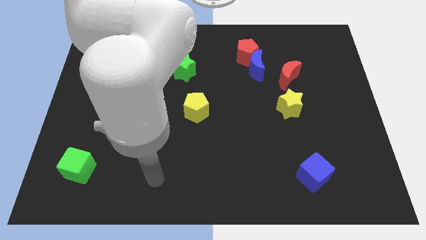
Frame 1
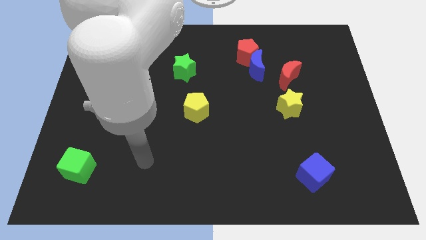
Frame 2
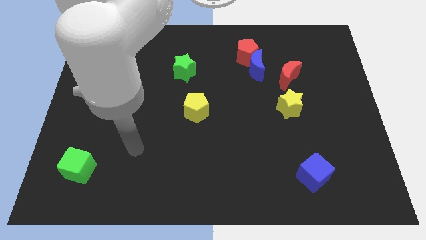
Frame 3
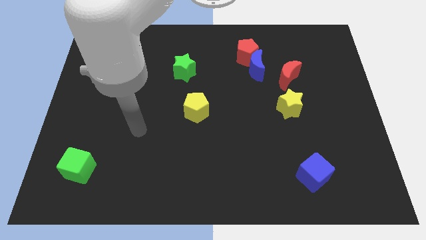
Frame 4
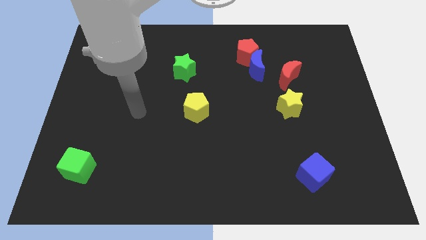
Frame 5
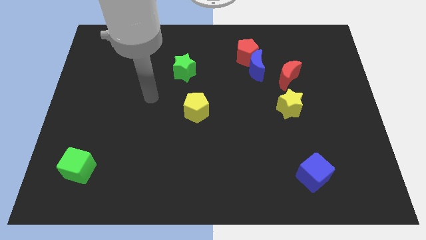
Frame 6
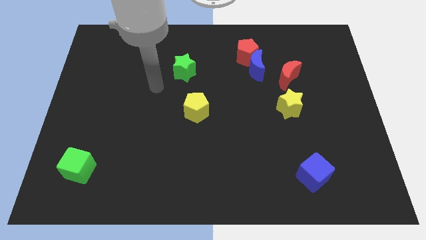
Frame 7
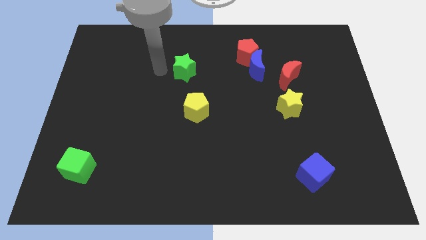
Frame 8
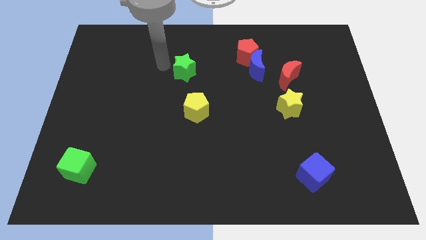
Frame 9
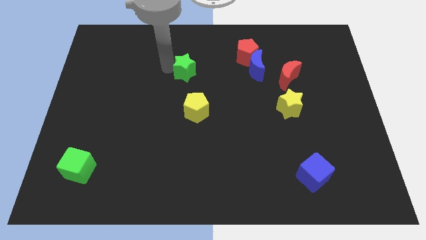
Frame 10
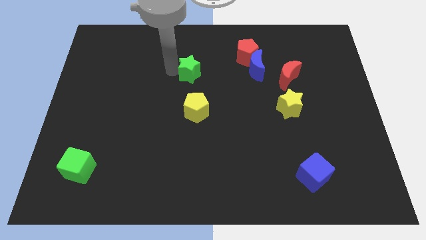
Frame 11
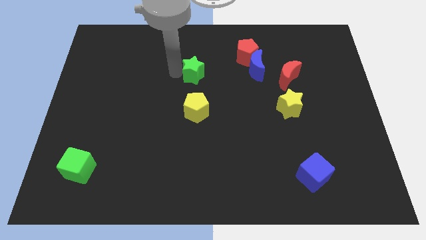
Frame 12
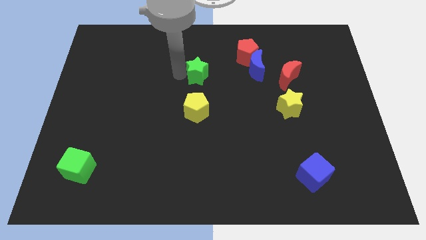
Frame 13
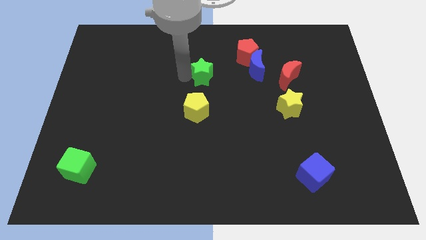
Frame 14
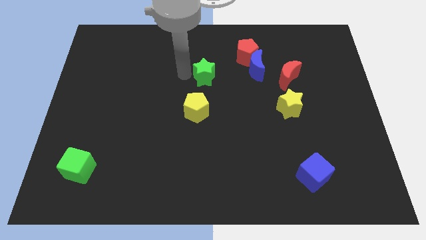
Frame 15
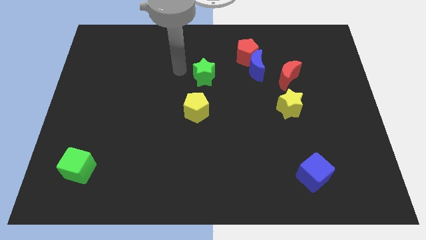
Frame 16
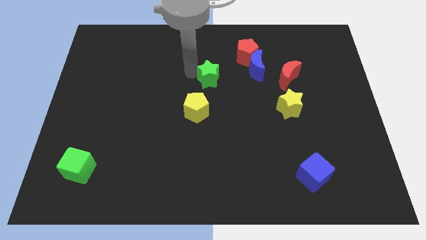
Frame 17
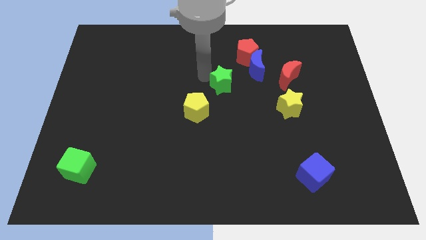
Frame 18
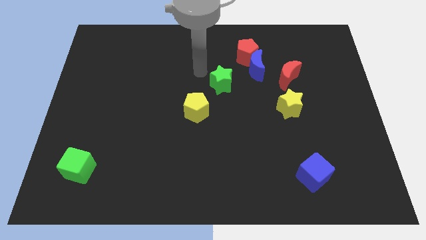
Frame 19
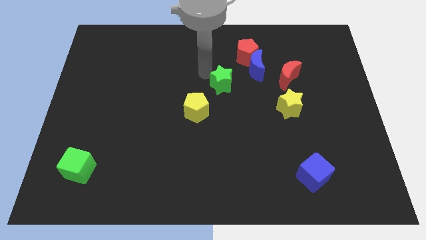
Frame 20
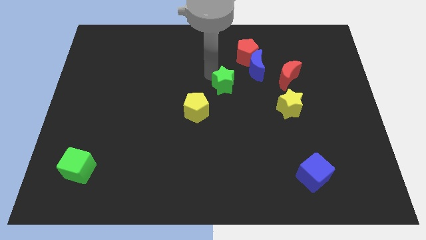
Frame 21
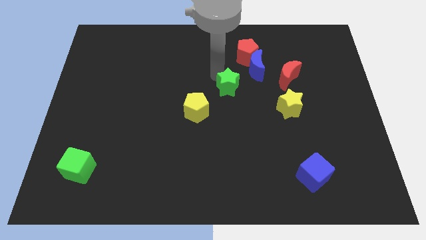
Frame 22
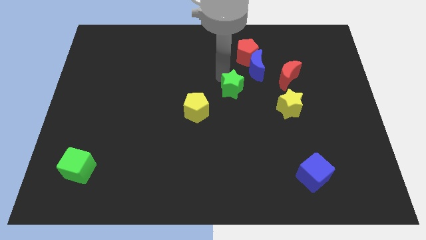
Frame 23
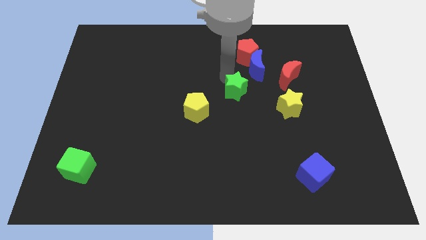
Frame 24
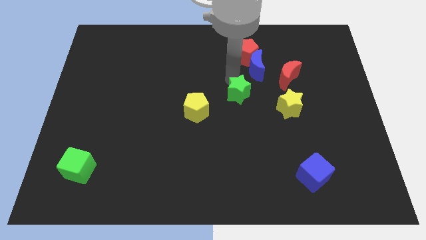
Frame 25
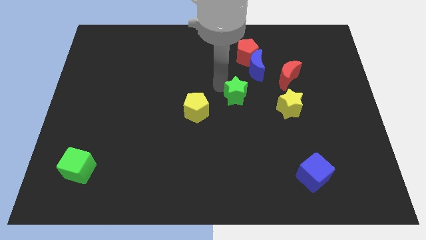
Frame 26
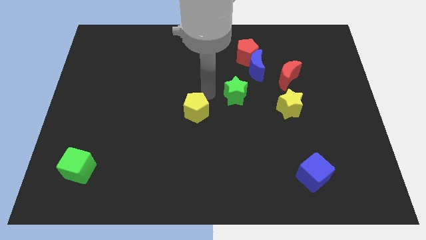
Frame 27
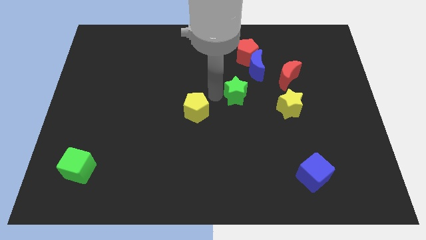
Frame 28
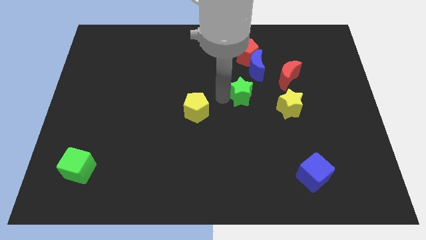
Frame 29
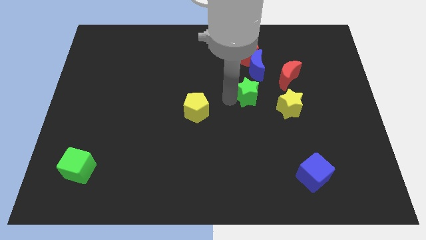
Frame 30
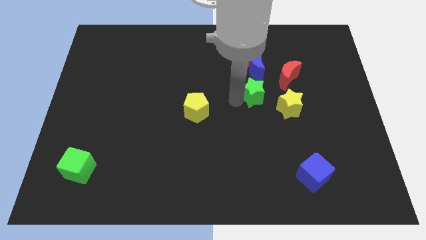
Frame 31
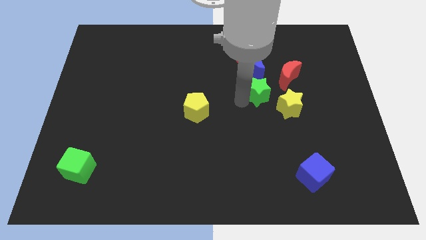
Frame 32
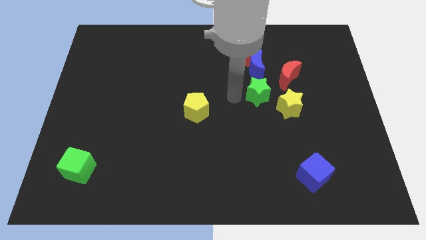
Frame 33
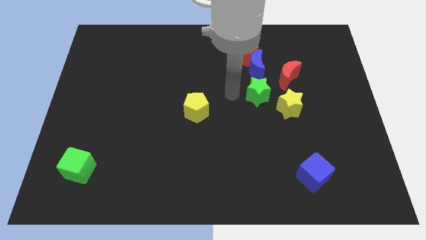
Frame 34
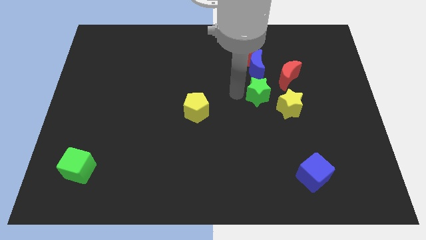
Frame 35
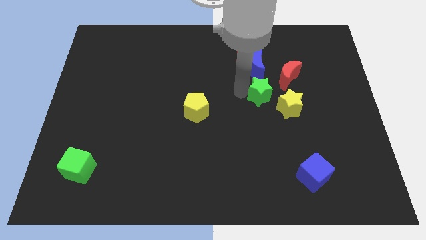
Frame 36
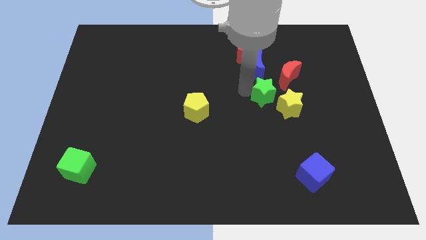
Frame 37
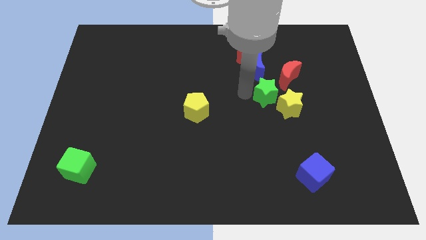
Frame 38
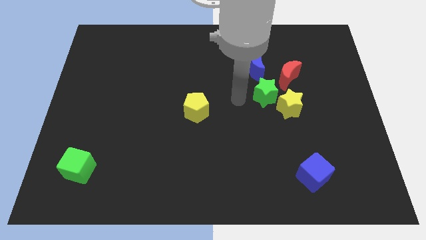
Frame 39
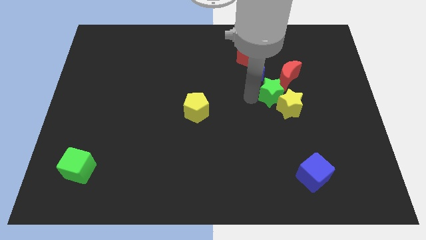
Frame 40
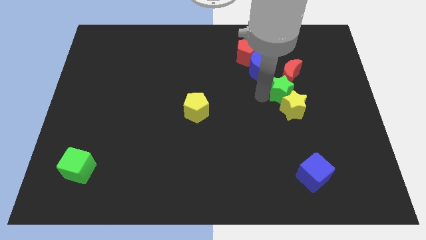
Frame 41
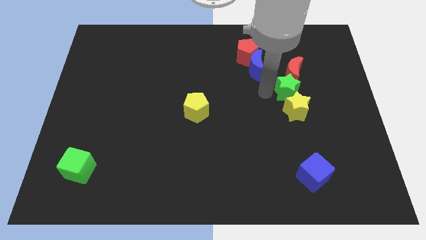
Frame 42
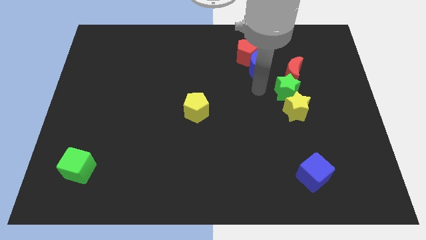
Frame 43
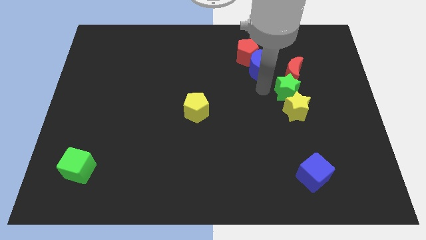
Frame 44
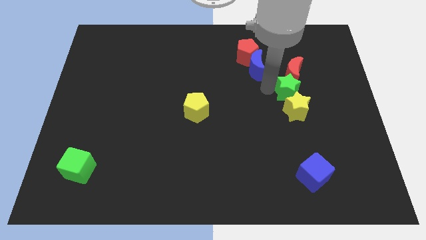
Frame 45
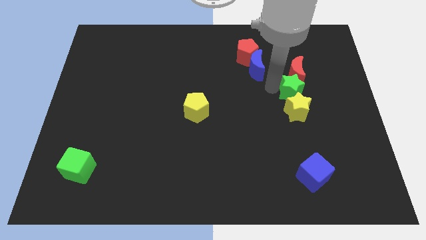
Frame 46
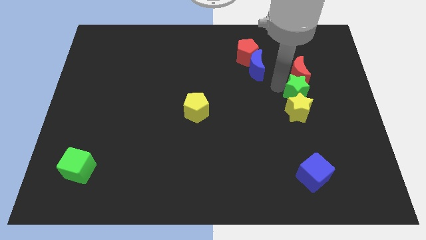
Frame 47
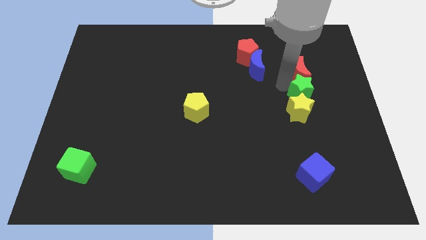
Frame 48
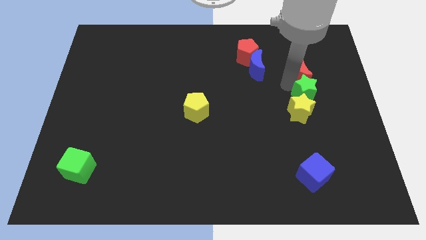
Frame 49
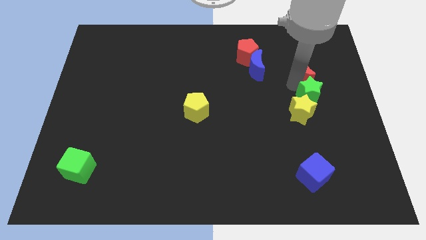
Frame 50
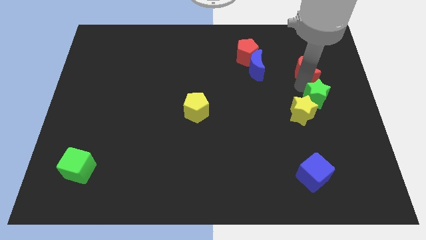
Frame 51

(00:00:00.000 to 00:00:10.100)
slide the green star to the right side of the yellow star

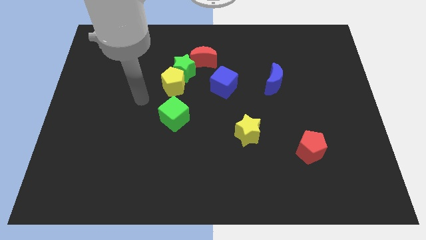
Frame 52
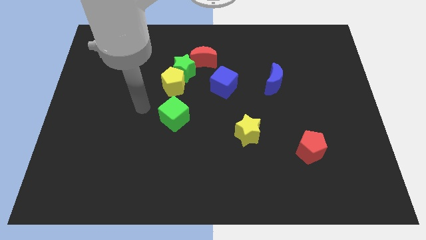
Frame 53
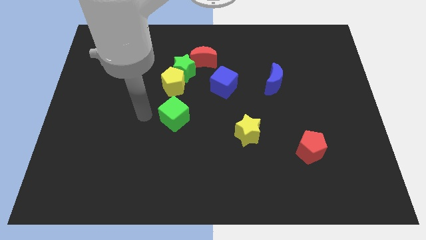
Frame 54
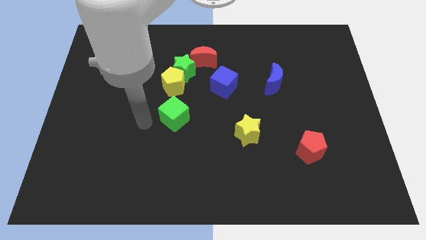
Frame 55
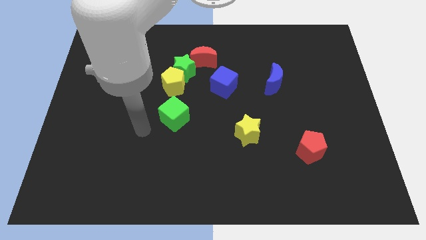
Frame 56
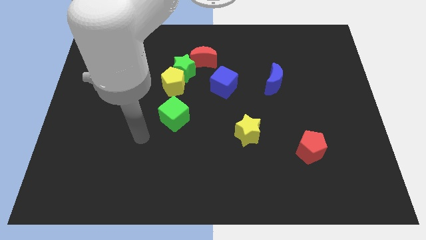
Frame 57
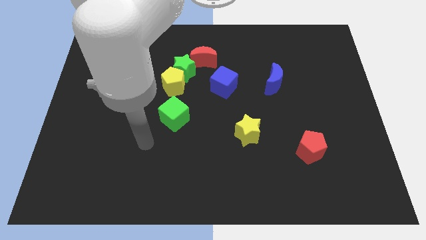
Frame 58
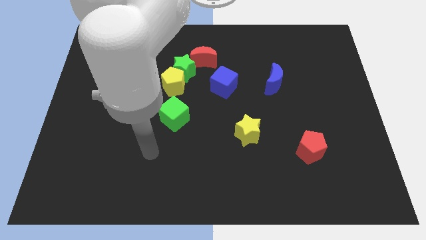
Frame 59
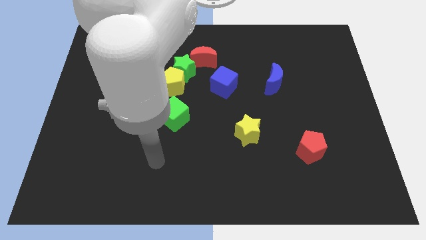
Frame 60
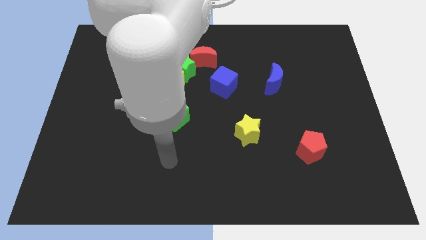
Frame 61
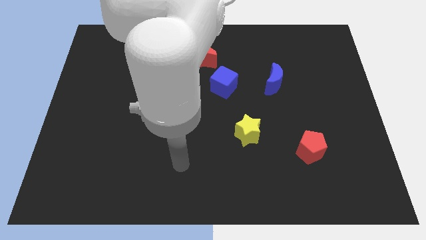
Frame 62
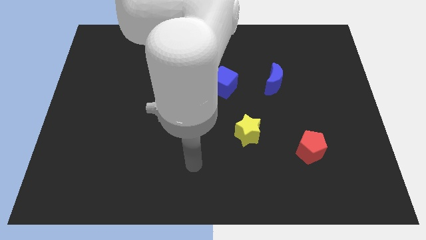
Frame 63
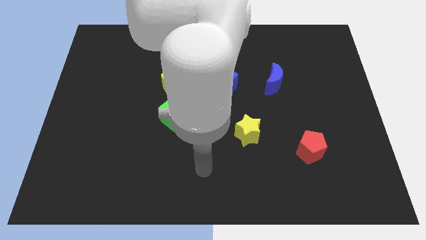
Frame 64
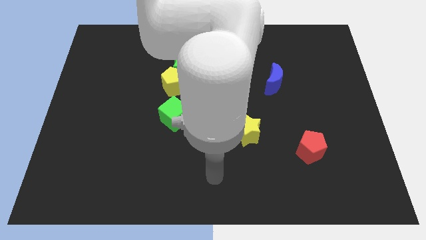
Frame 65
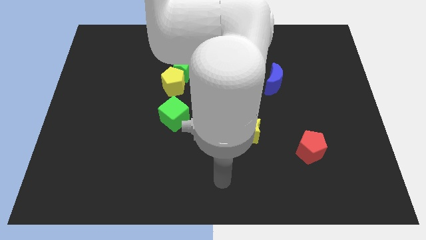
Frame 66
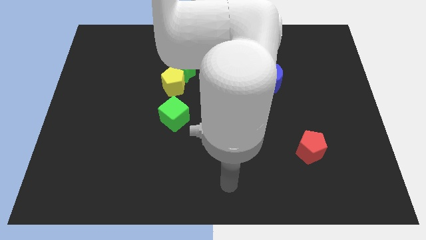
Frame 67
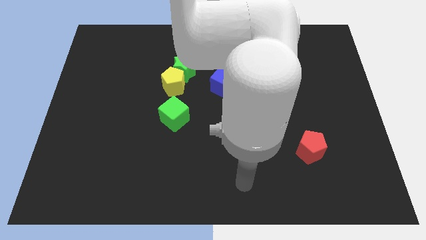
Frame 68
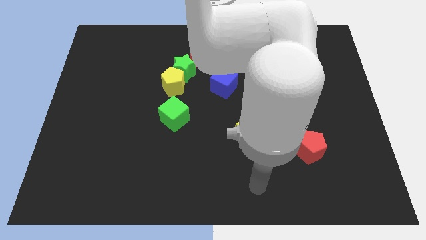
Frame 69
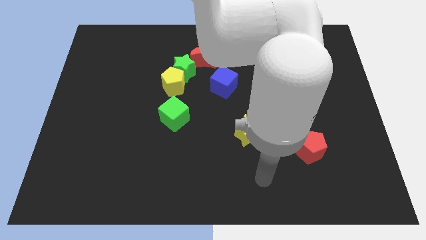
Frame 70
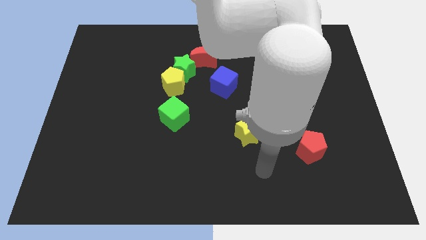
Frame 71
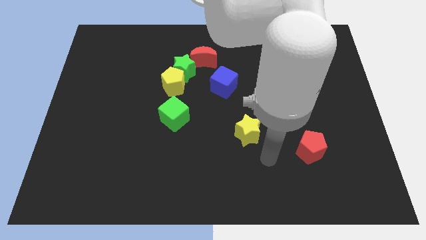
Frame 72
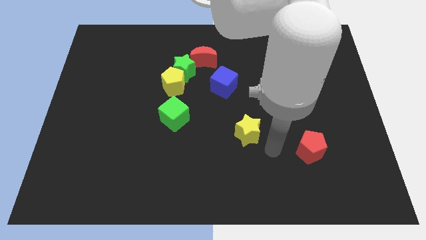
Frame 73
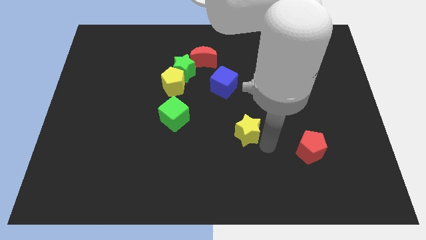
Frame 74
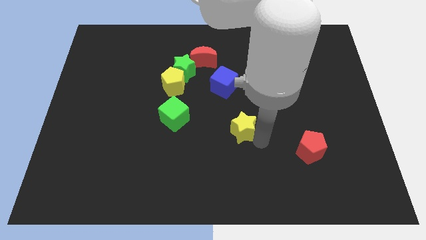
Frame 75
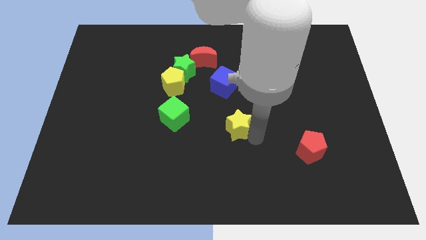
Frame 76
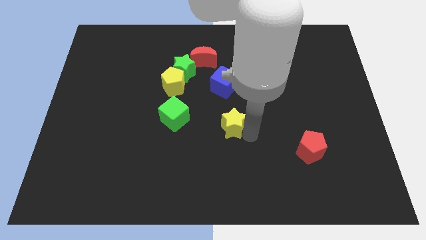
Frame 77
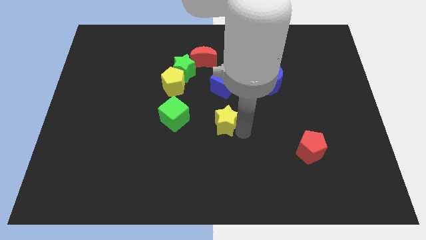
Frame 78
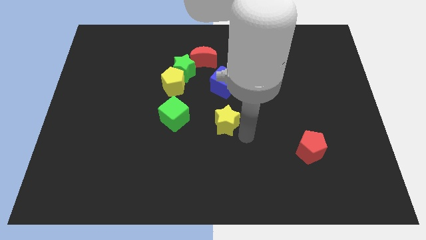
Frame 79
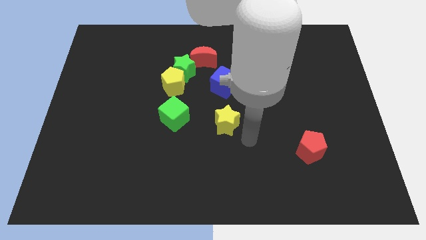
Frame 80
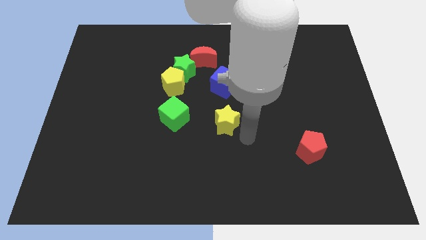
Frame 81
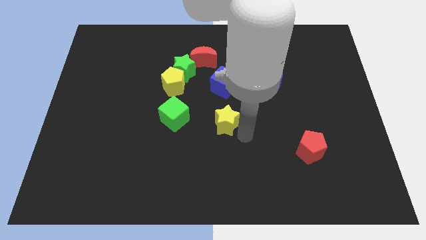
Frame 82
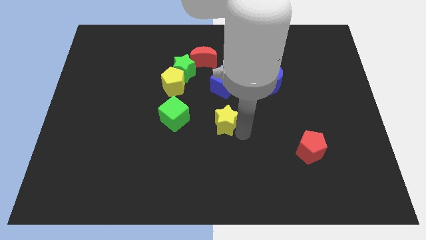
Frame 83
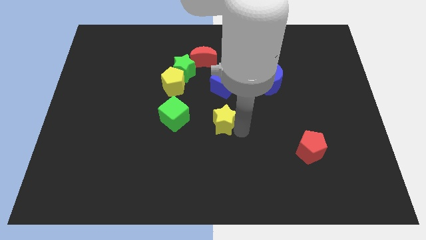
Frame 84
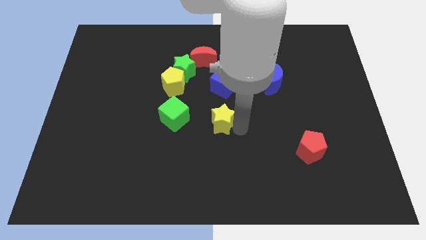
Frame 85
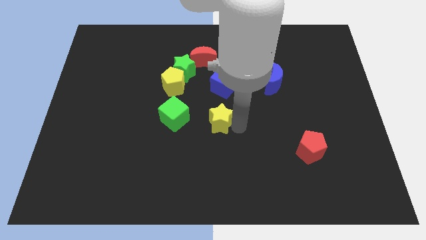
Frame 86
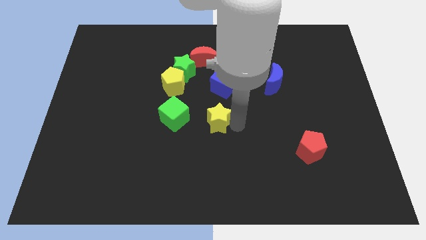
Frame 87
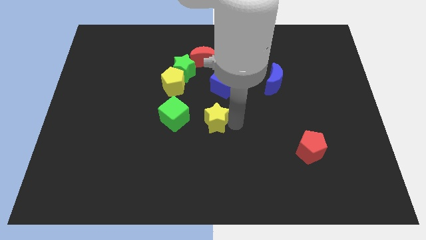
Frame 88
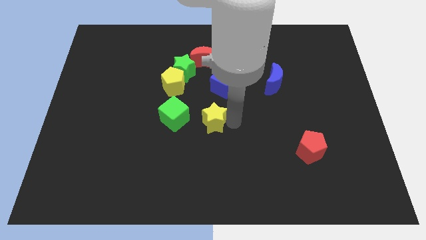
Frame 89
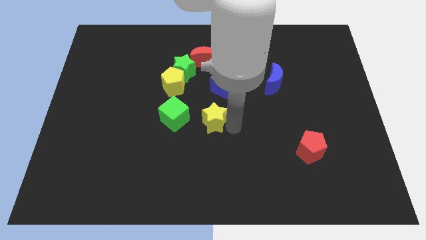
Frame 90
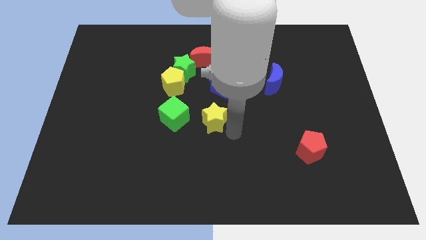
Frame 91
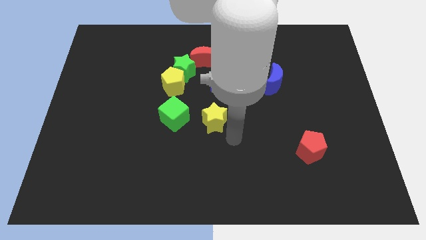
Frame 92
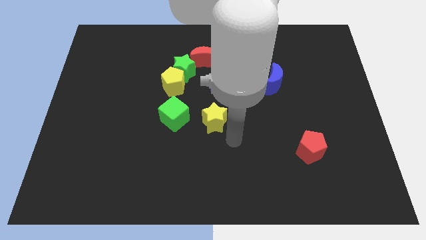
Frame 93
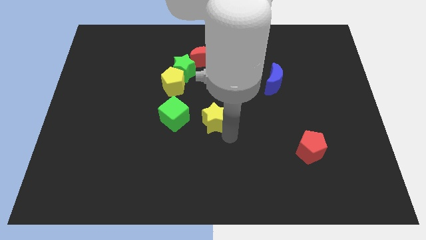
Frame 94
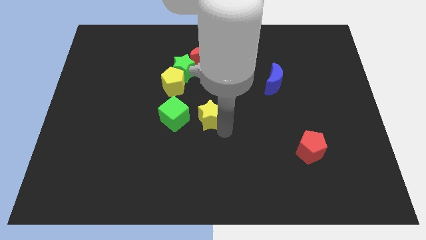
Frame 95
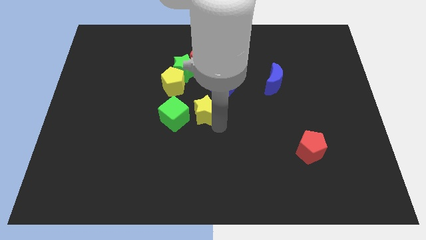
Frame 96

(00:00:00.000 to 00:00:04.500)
move the yellow star to the bottom right of the yellow pentagon
